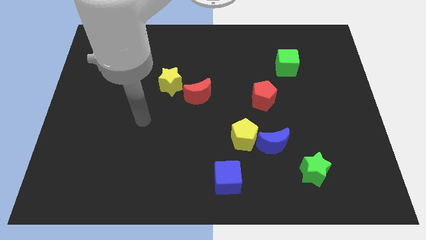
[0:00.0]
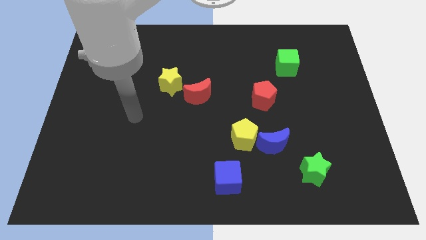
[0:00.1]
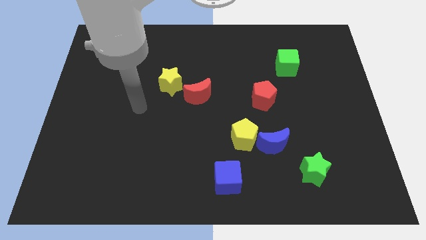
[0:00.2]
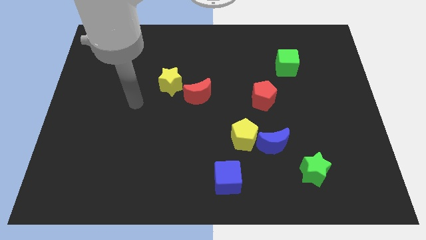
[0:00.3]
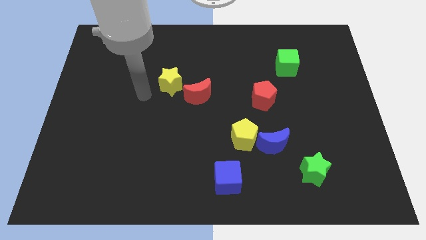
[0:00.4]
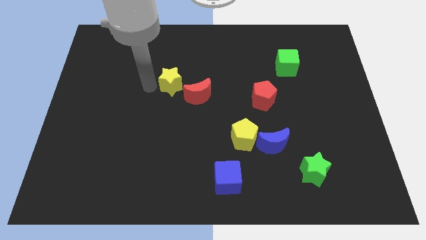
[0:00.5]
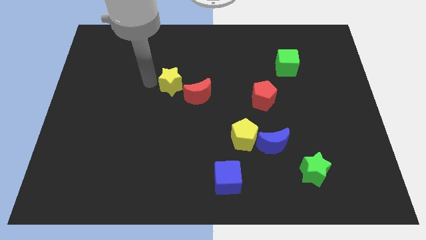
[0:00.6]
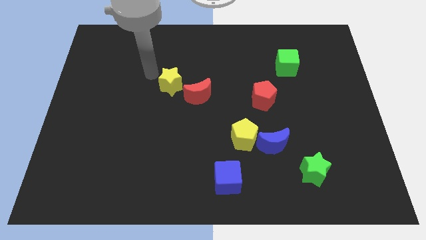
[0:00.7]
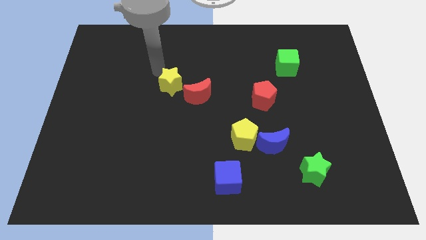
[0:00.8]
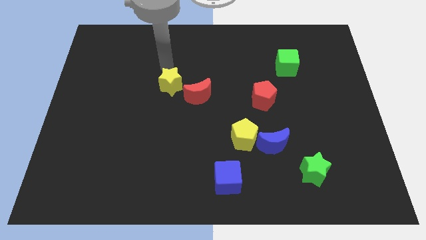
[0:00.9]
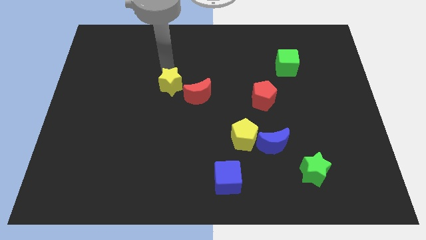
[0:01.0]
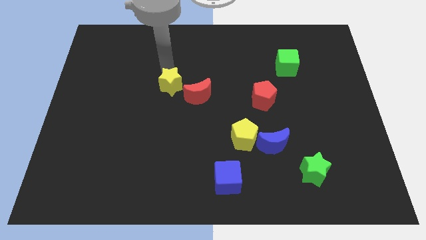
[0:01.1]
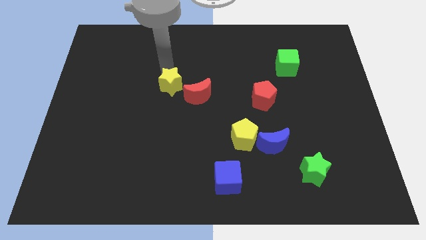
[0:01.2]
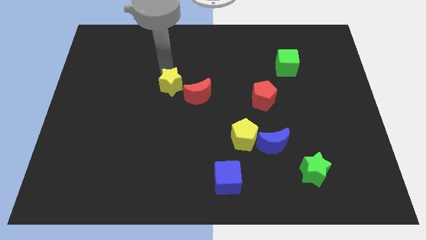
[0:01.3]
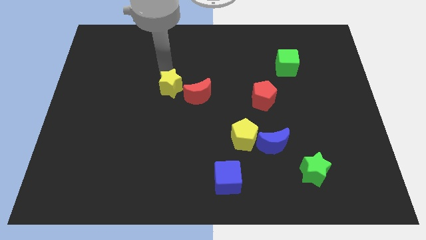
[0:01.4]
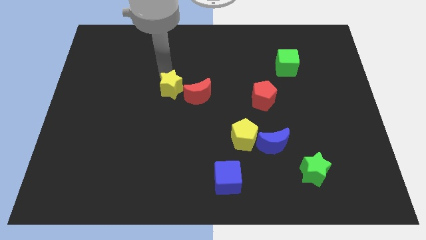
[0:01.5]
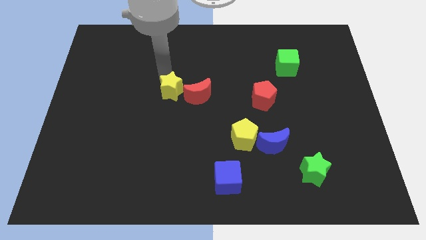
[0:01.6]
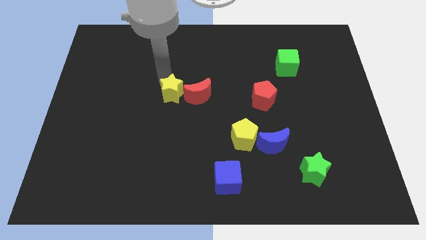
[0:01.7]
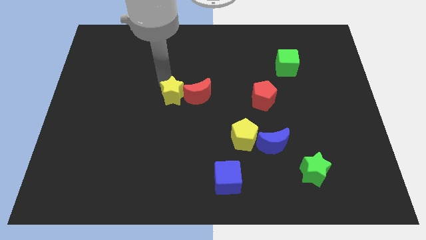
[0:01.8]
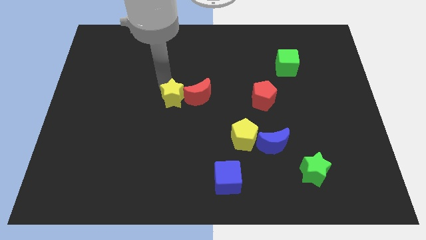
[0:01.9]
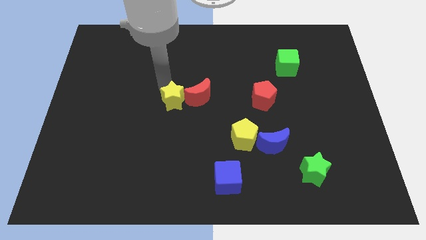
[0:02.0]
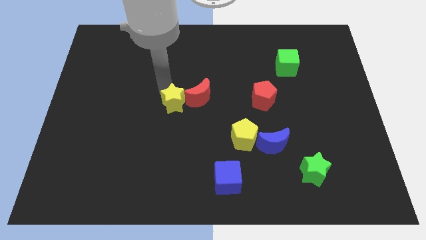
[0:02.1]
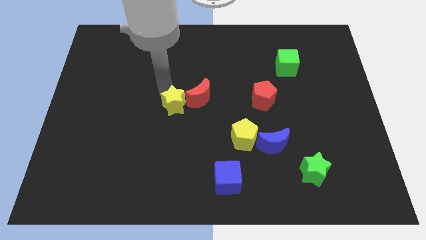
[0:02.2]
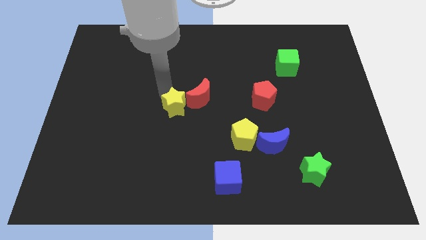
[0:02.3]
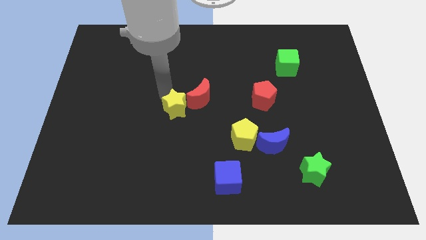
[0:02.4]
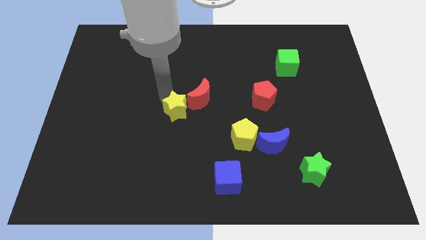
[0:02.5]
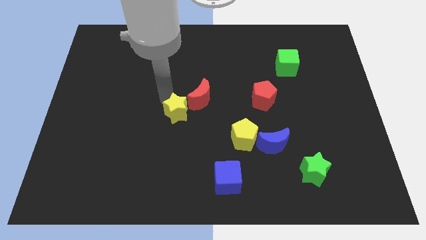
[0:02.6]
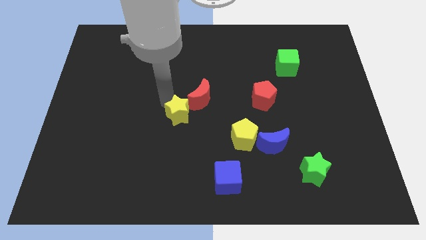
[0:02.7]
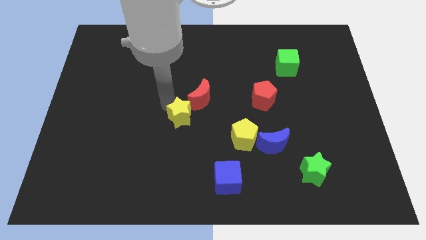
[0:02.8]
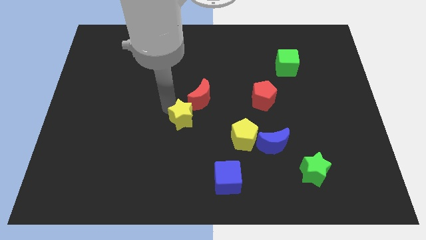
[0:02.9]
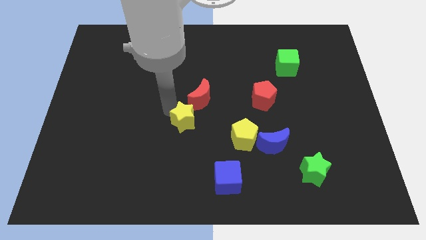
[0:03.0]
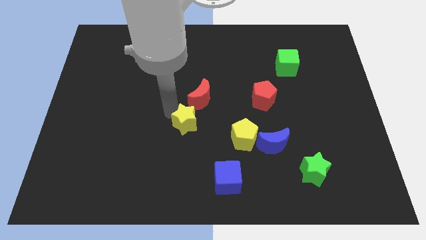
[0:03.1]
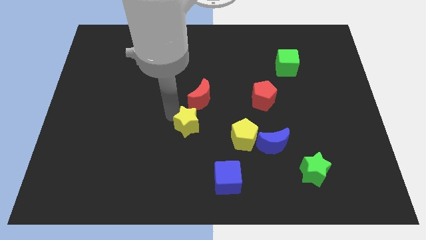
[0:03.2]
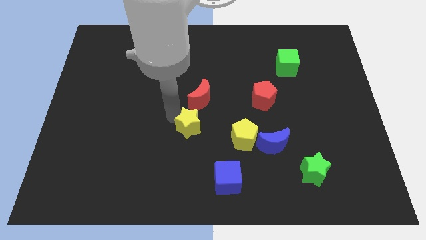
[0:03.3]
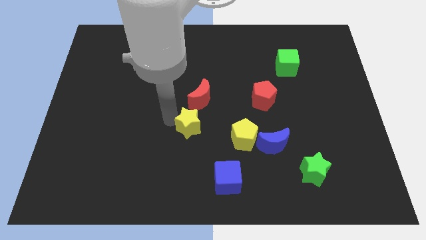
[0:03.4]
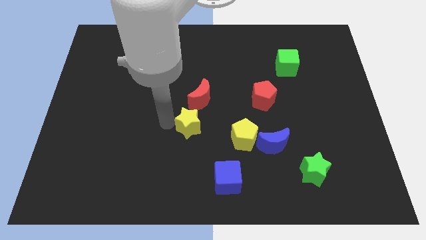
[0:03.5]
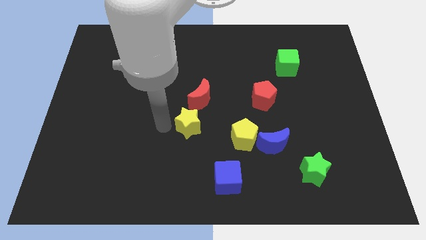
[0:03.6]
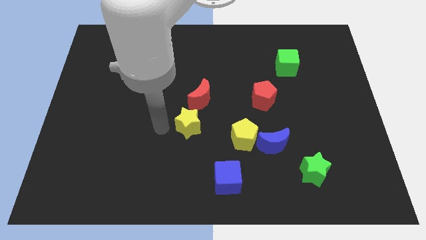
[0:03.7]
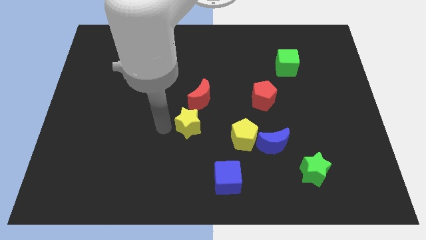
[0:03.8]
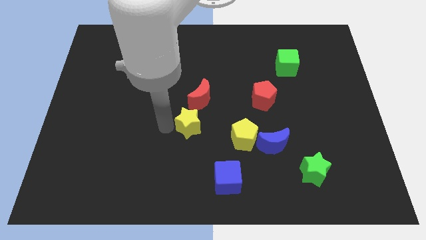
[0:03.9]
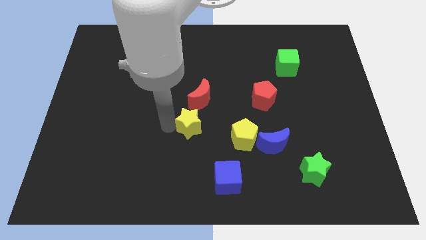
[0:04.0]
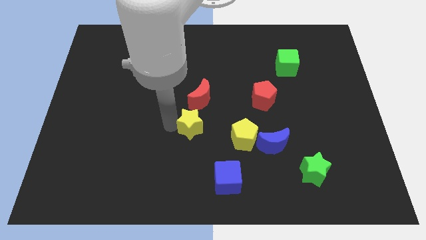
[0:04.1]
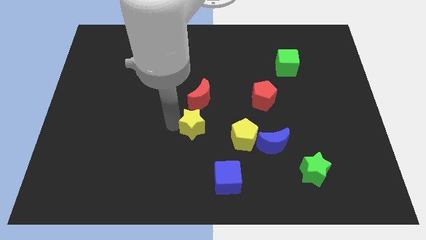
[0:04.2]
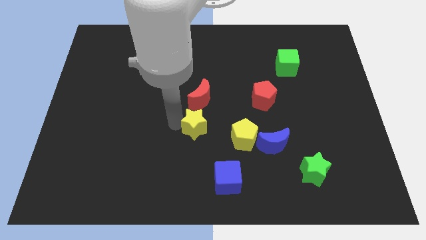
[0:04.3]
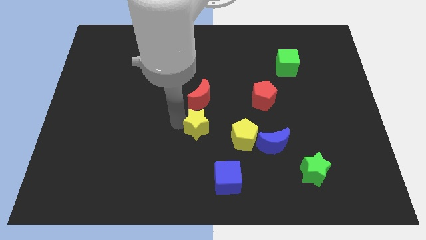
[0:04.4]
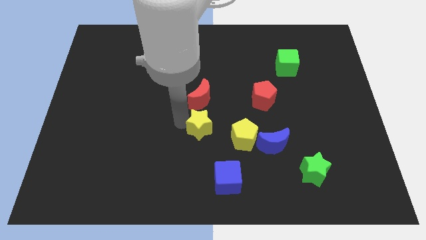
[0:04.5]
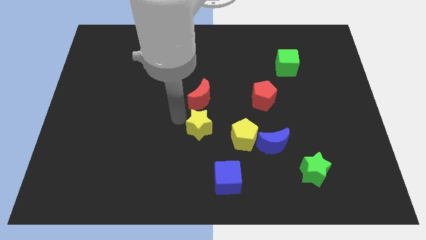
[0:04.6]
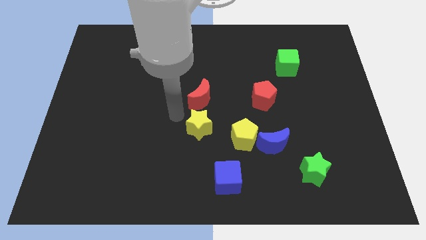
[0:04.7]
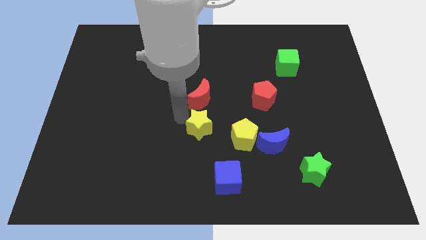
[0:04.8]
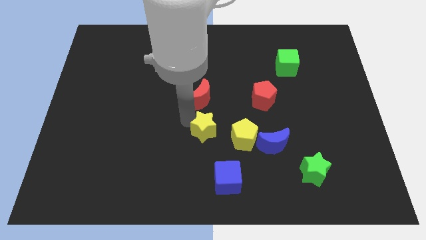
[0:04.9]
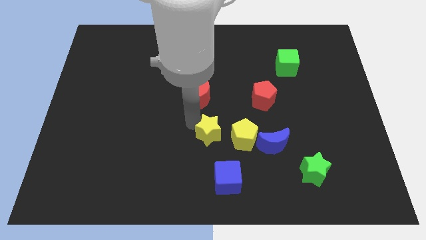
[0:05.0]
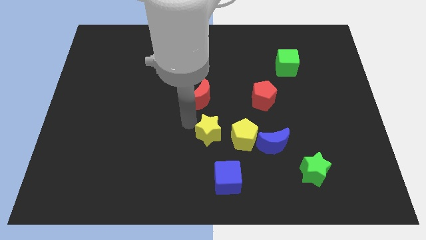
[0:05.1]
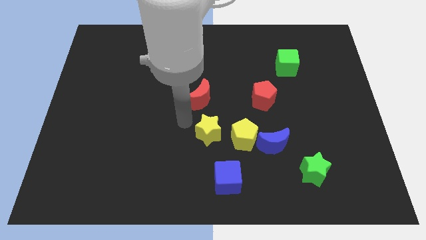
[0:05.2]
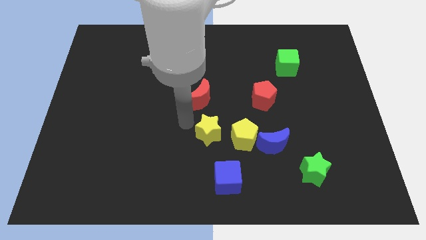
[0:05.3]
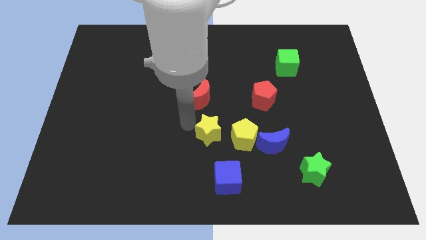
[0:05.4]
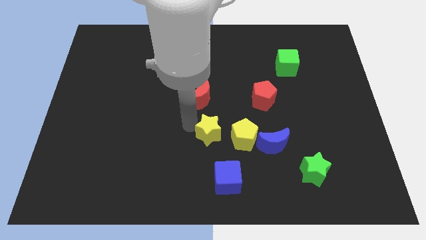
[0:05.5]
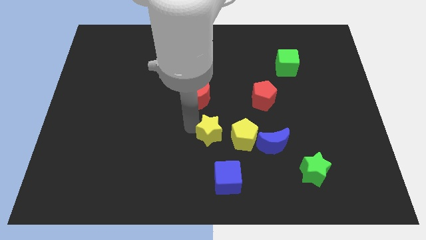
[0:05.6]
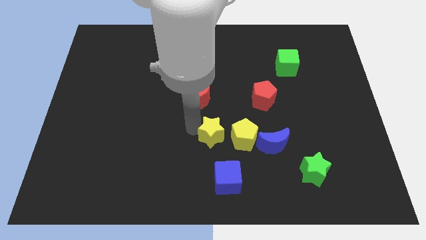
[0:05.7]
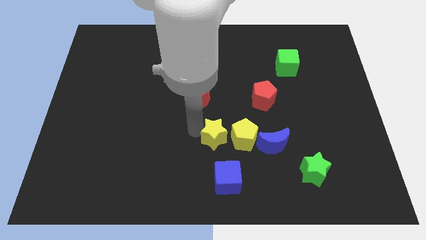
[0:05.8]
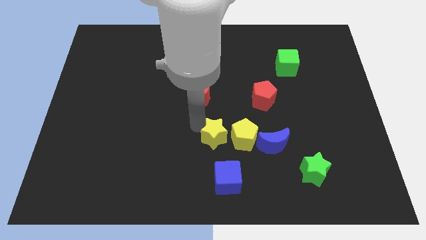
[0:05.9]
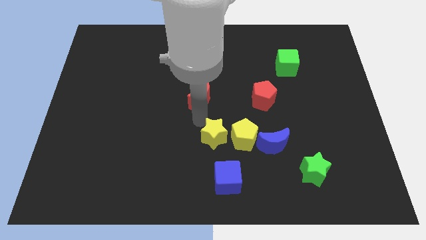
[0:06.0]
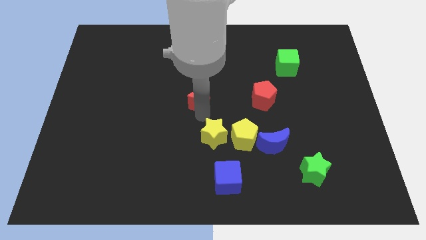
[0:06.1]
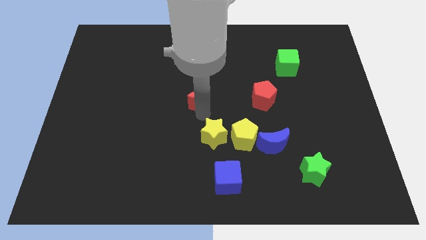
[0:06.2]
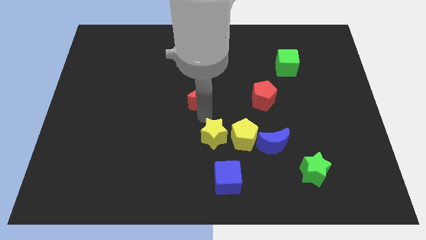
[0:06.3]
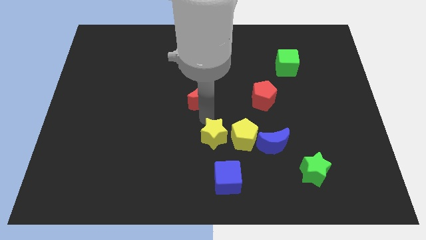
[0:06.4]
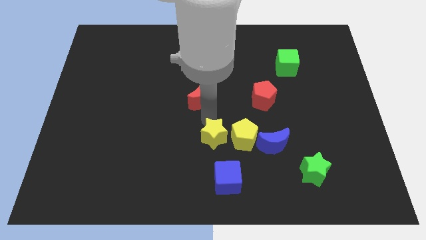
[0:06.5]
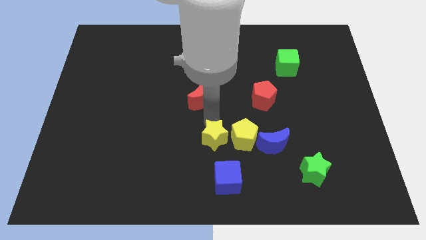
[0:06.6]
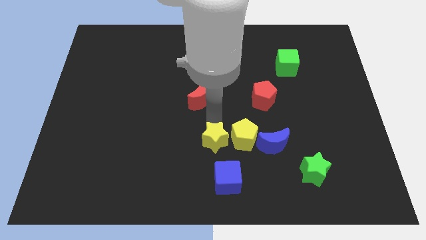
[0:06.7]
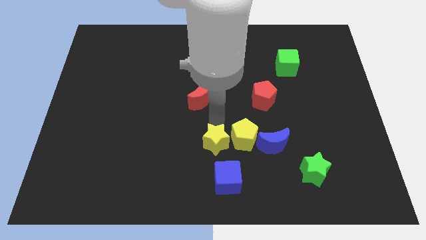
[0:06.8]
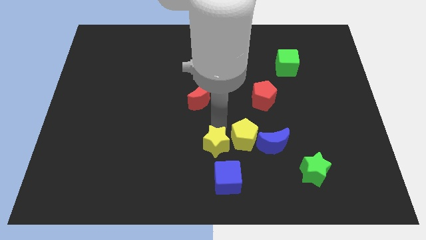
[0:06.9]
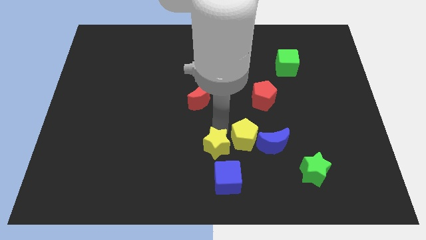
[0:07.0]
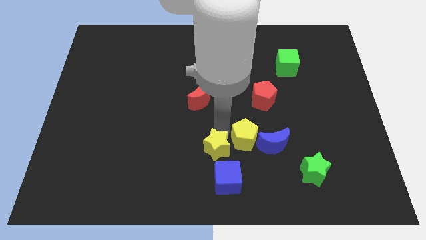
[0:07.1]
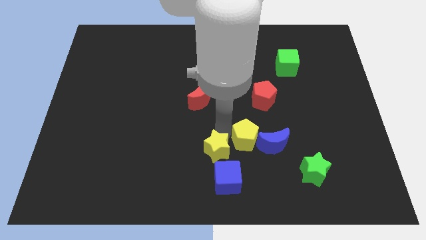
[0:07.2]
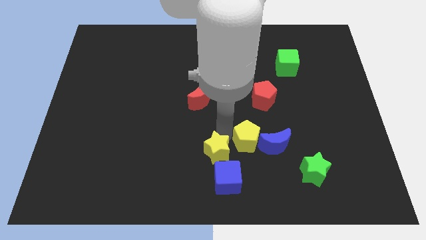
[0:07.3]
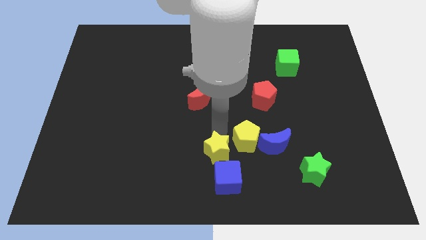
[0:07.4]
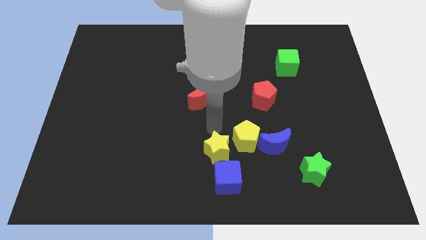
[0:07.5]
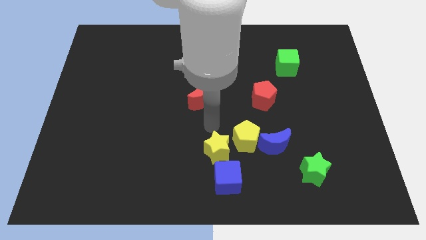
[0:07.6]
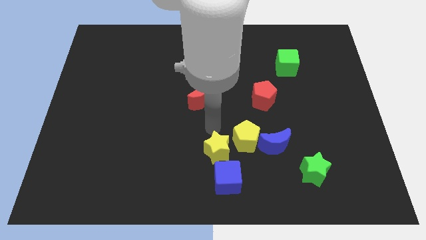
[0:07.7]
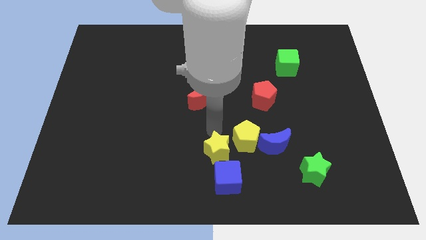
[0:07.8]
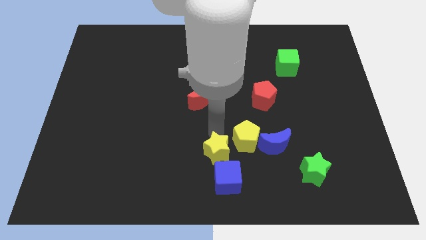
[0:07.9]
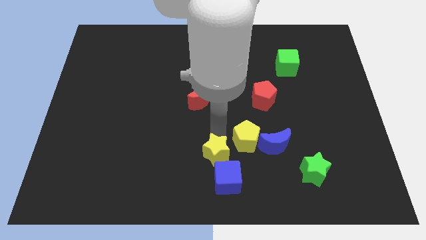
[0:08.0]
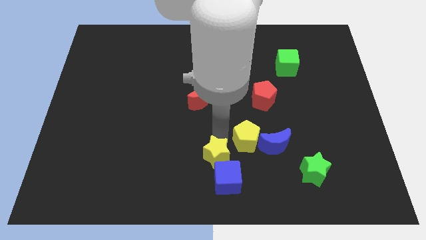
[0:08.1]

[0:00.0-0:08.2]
push the yellow star next to the blue cube
